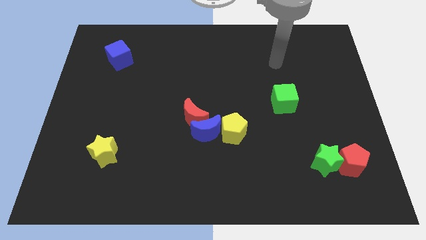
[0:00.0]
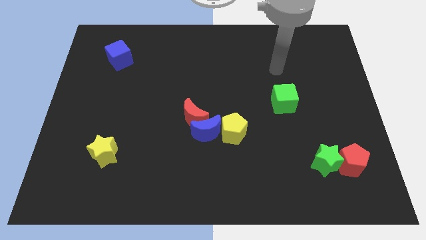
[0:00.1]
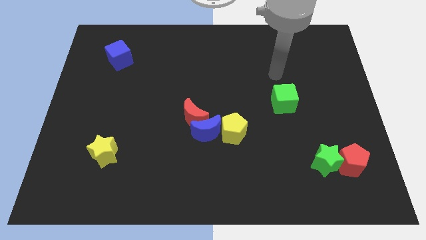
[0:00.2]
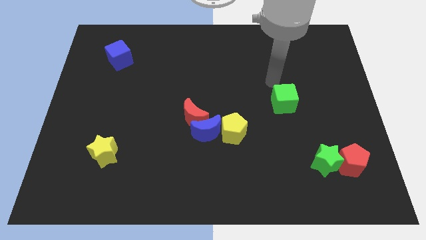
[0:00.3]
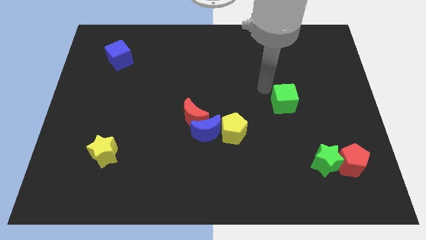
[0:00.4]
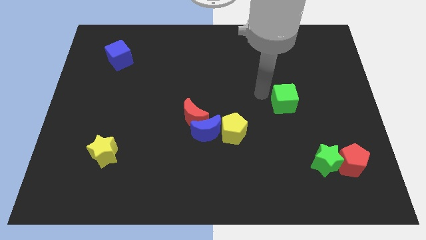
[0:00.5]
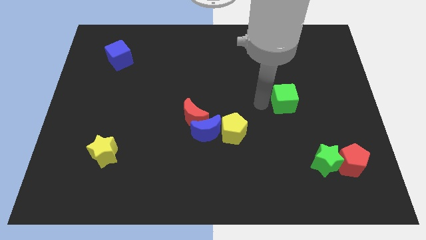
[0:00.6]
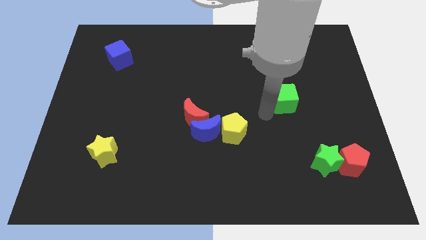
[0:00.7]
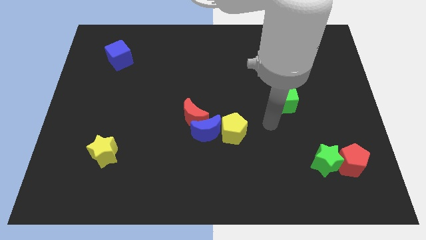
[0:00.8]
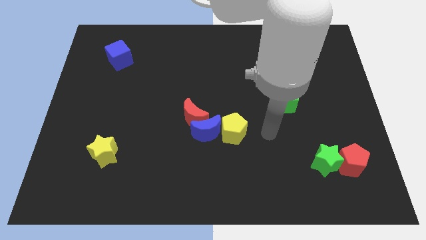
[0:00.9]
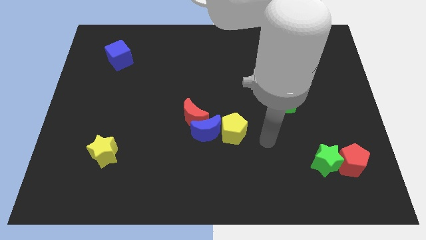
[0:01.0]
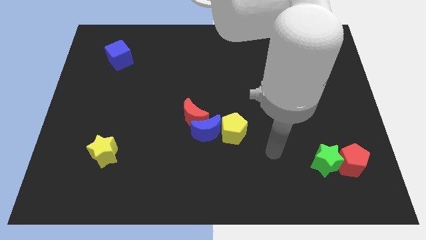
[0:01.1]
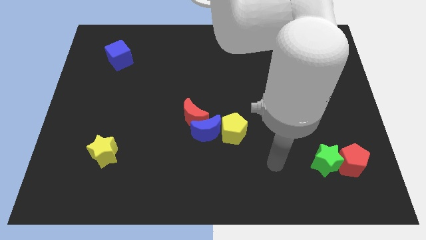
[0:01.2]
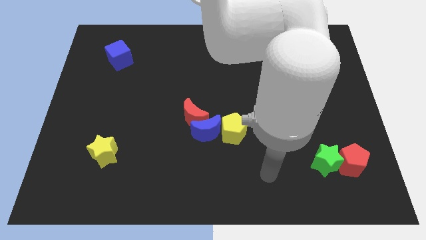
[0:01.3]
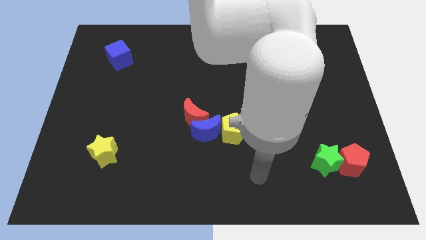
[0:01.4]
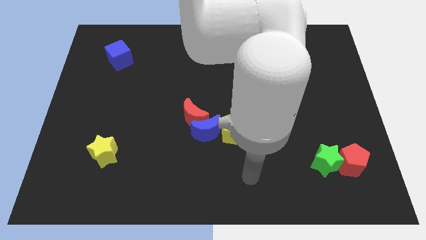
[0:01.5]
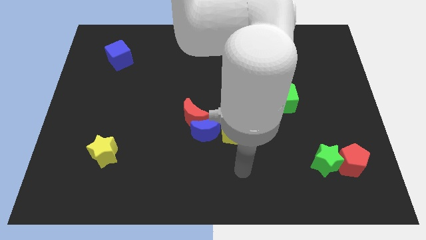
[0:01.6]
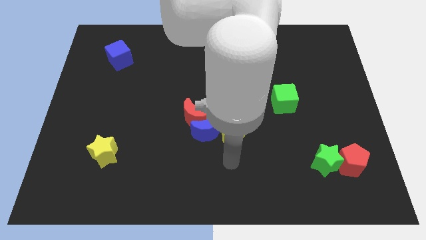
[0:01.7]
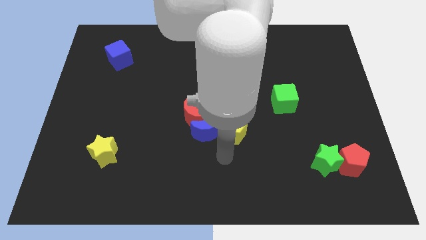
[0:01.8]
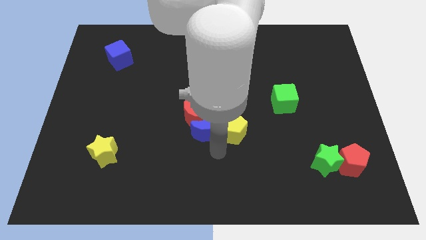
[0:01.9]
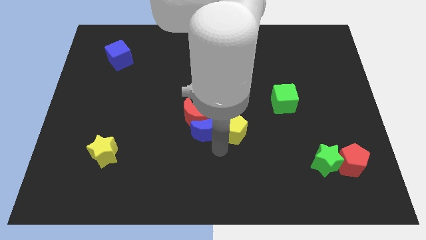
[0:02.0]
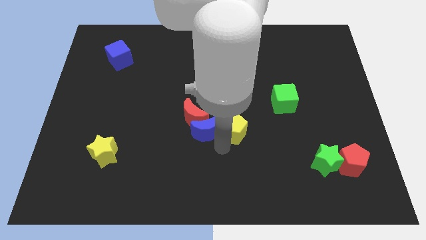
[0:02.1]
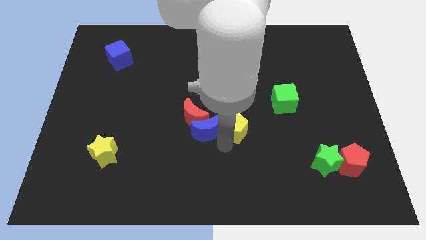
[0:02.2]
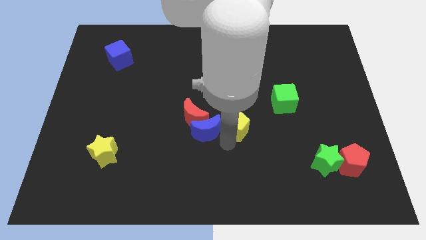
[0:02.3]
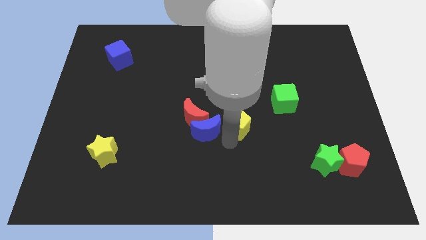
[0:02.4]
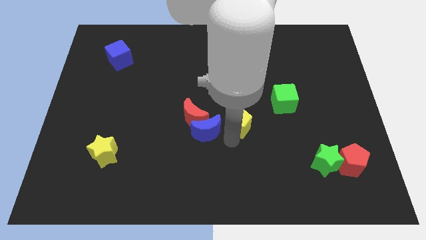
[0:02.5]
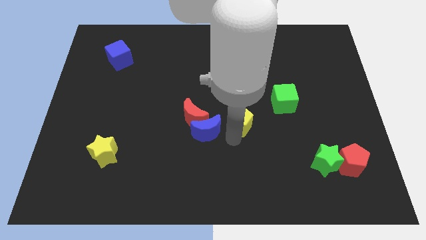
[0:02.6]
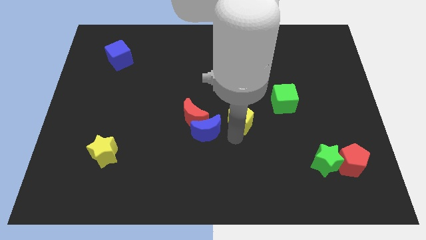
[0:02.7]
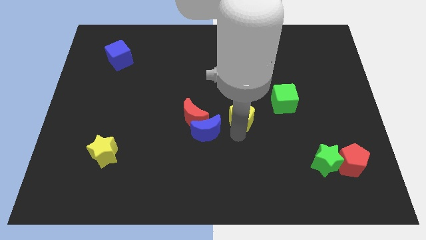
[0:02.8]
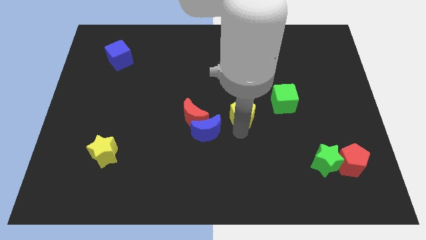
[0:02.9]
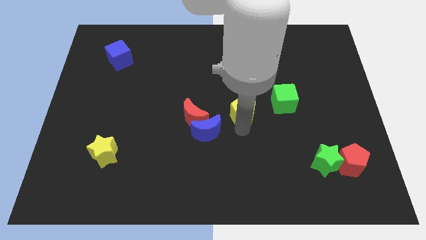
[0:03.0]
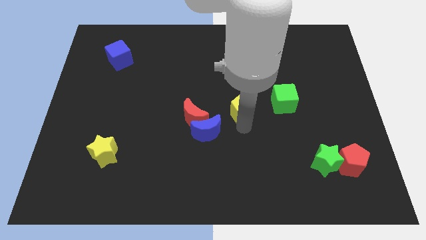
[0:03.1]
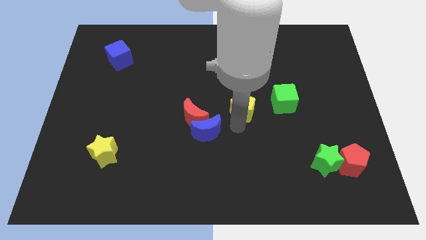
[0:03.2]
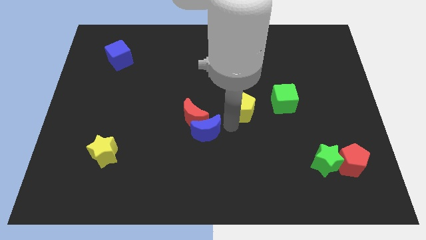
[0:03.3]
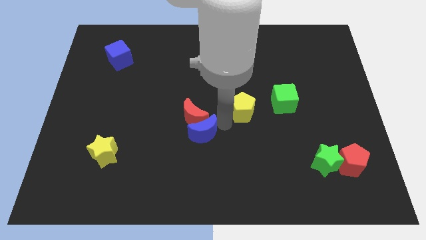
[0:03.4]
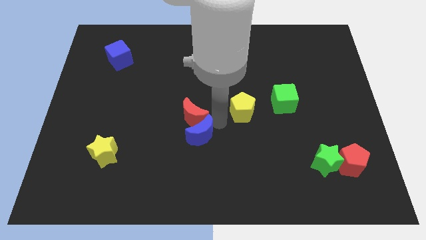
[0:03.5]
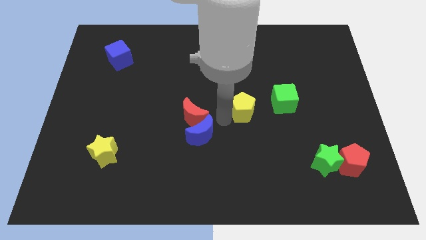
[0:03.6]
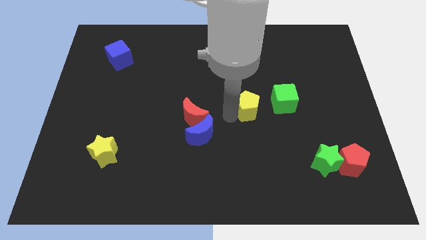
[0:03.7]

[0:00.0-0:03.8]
slide the yellow pentagon upwards and right a little

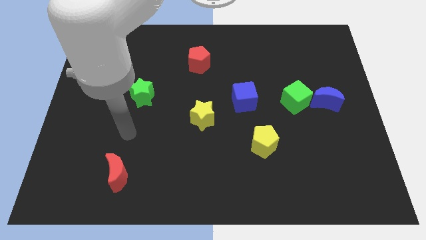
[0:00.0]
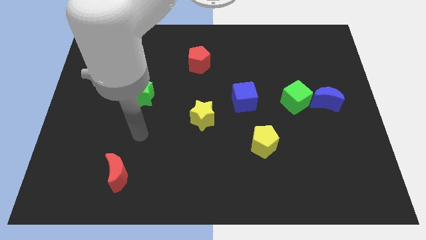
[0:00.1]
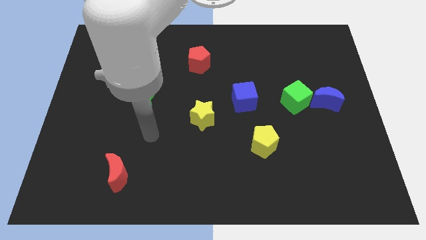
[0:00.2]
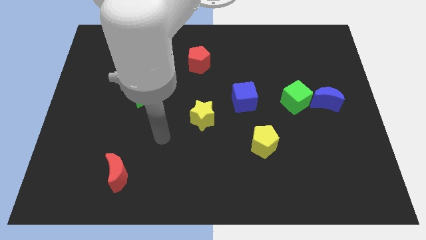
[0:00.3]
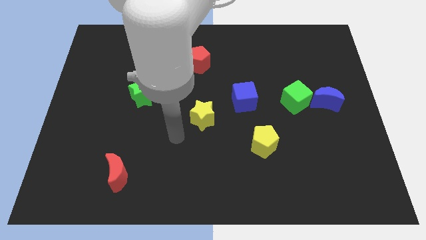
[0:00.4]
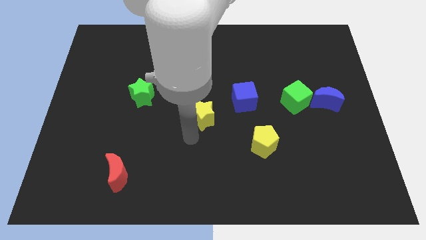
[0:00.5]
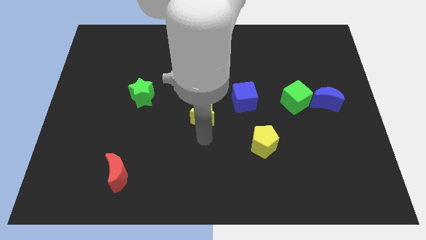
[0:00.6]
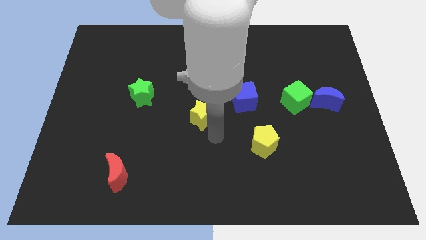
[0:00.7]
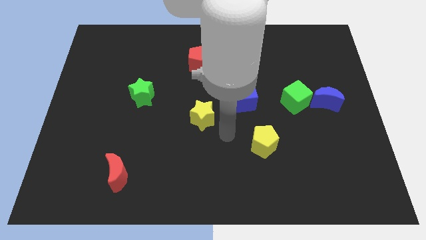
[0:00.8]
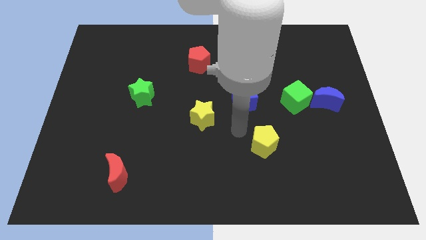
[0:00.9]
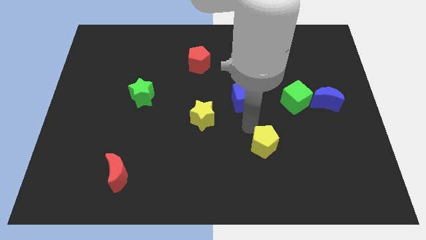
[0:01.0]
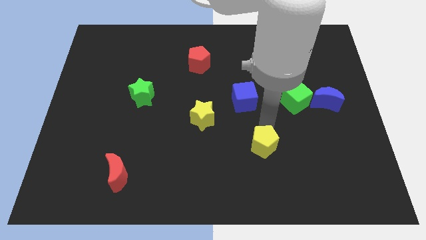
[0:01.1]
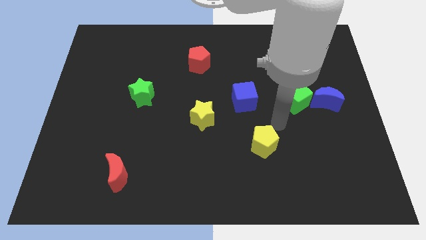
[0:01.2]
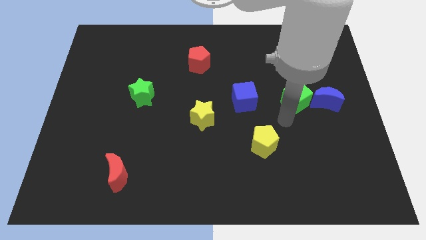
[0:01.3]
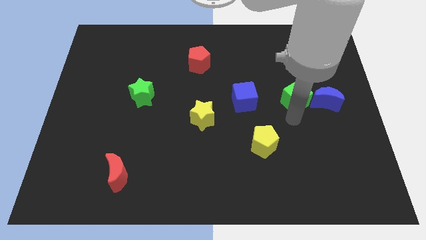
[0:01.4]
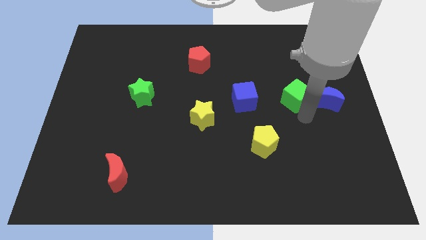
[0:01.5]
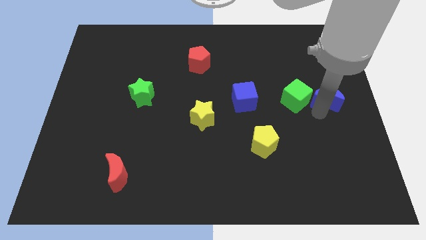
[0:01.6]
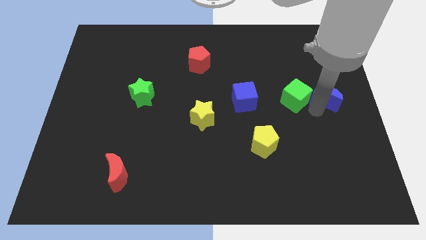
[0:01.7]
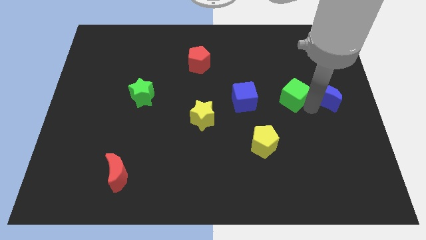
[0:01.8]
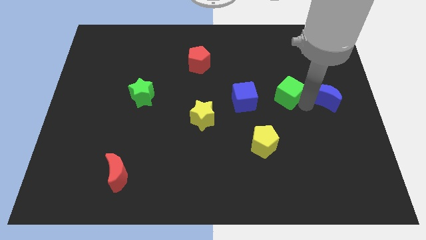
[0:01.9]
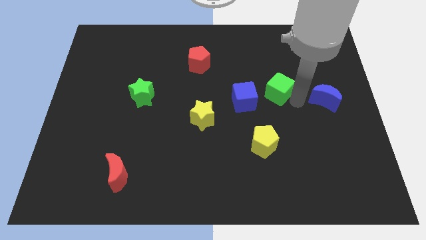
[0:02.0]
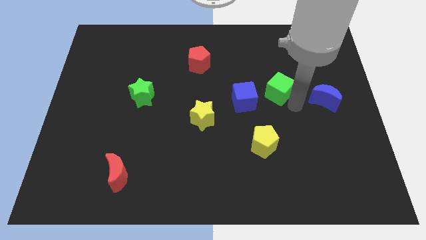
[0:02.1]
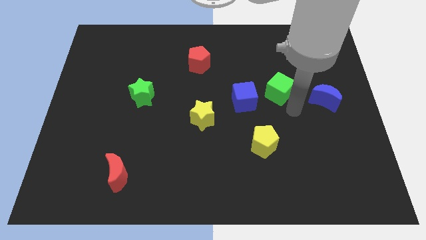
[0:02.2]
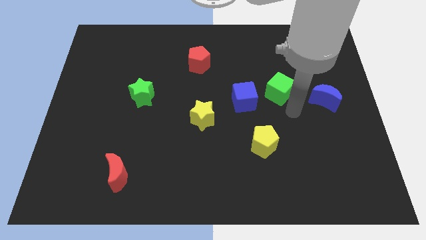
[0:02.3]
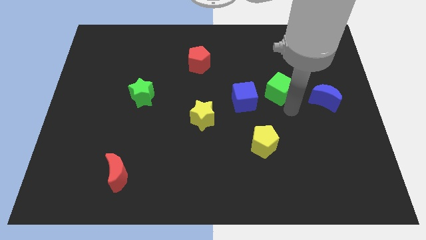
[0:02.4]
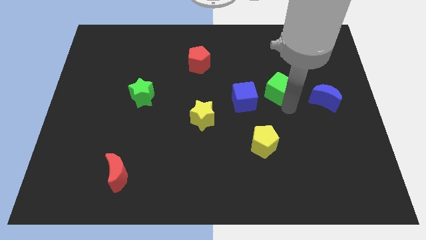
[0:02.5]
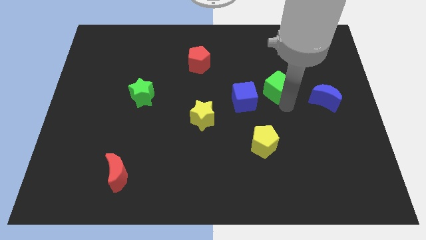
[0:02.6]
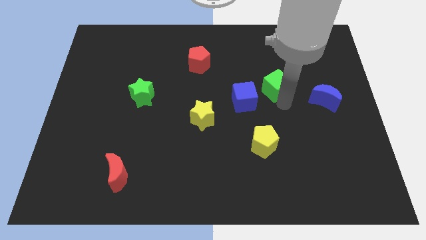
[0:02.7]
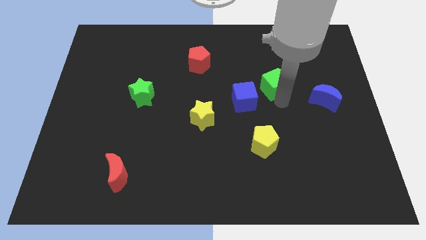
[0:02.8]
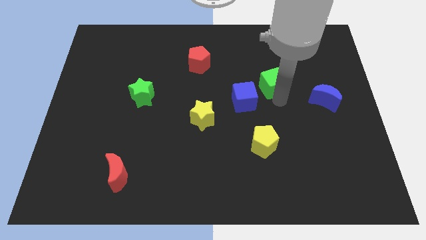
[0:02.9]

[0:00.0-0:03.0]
slide the green cube somewhat upwards and to the left diagonally

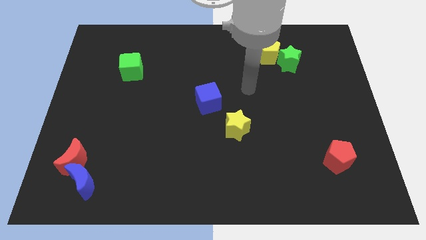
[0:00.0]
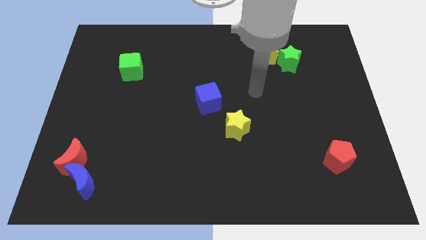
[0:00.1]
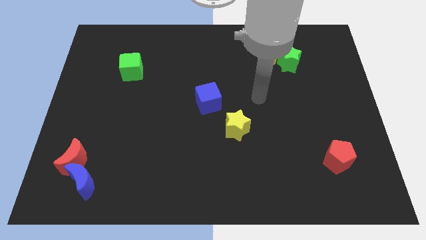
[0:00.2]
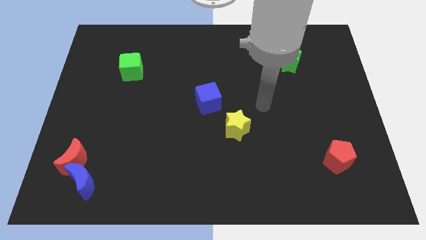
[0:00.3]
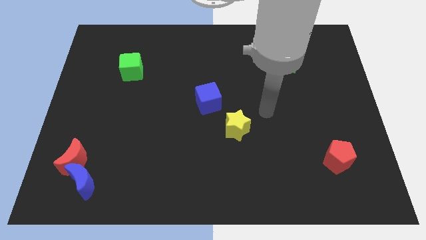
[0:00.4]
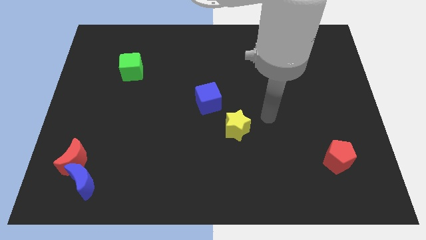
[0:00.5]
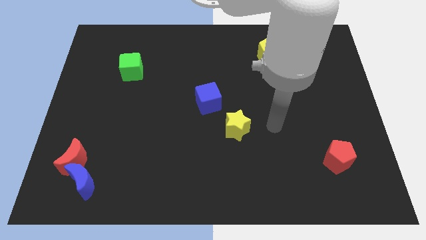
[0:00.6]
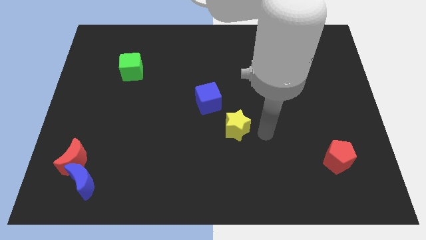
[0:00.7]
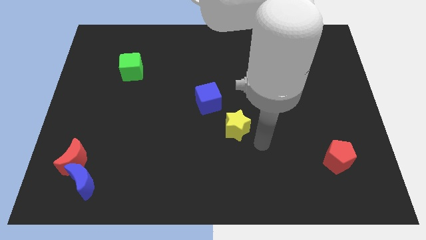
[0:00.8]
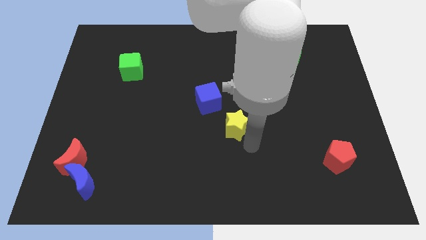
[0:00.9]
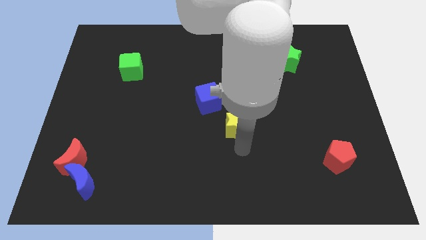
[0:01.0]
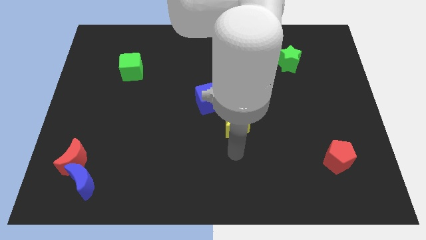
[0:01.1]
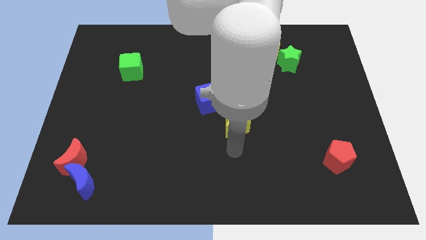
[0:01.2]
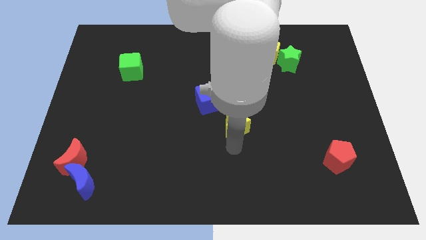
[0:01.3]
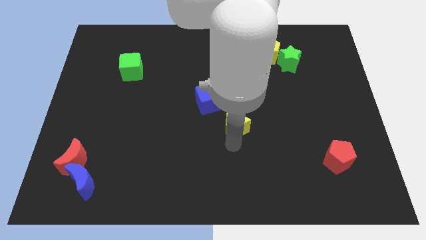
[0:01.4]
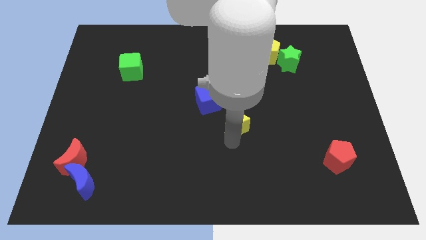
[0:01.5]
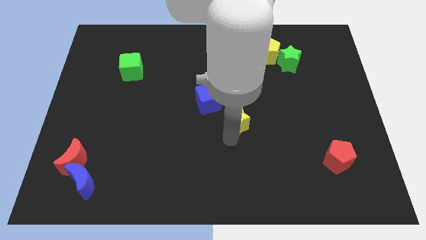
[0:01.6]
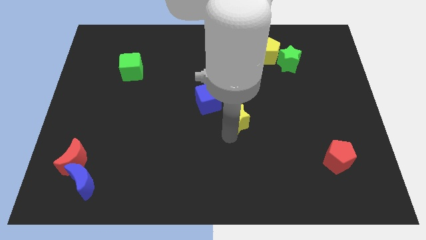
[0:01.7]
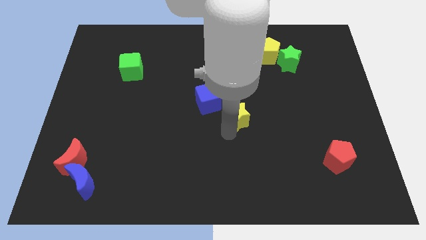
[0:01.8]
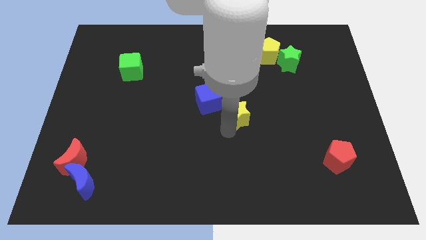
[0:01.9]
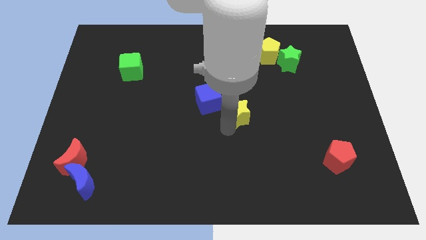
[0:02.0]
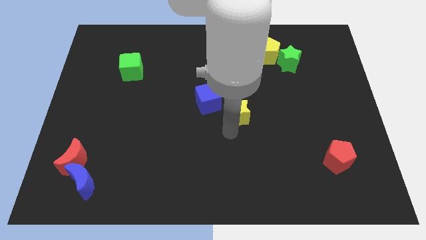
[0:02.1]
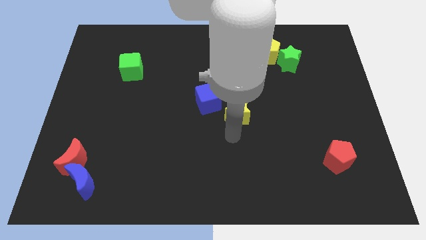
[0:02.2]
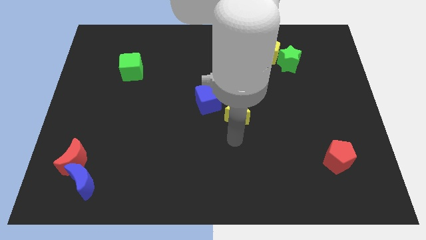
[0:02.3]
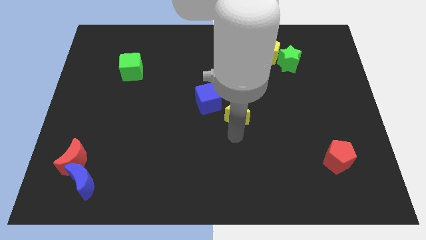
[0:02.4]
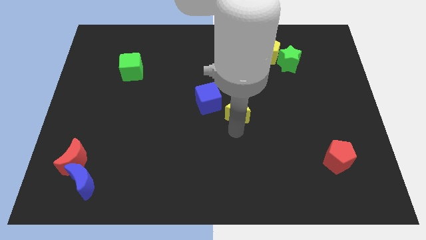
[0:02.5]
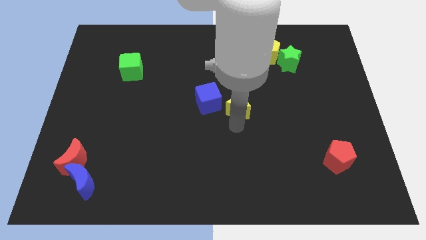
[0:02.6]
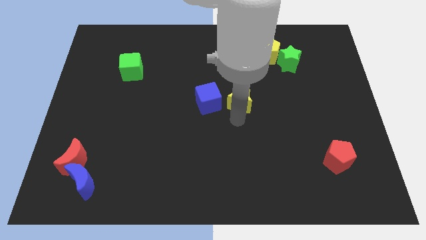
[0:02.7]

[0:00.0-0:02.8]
slightly move the yellow star up
